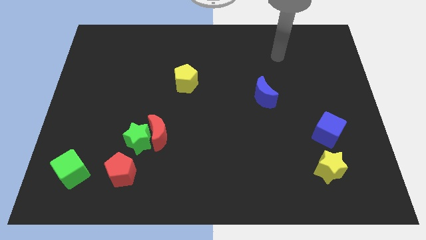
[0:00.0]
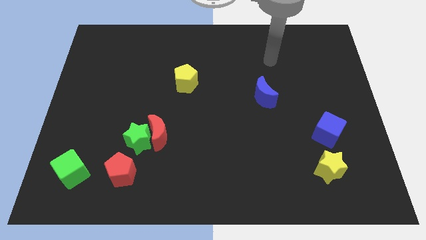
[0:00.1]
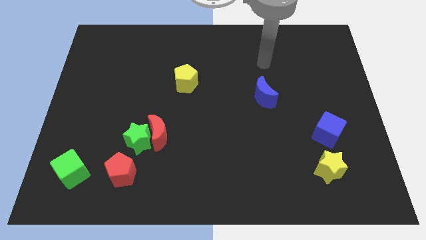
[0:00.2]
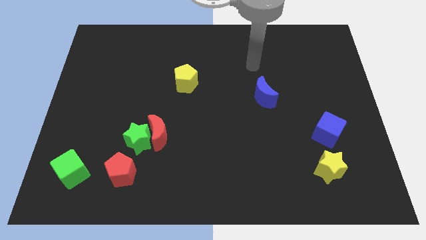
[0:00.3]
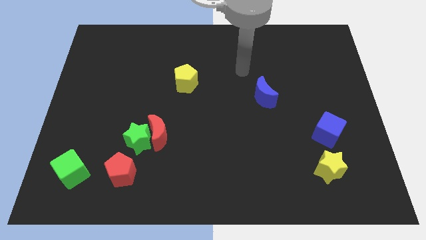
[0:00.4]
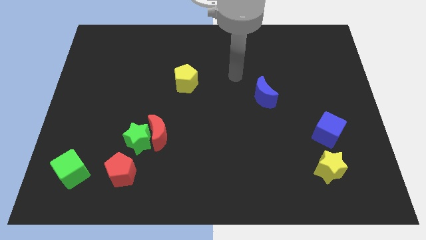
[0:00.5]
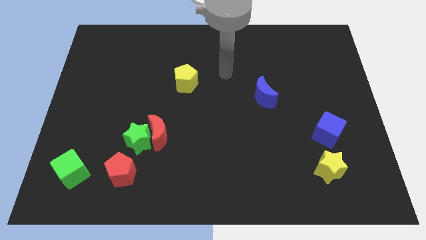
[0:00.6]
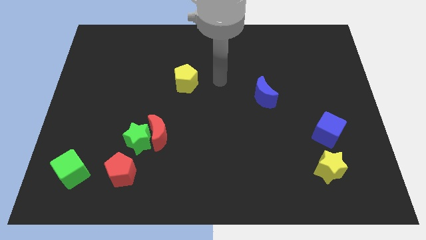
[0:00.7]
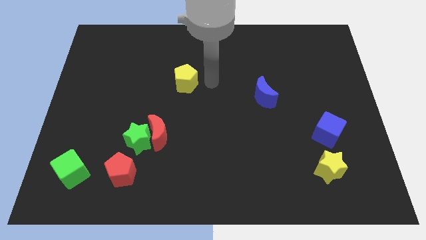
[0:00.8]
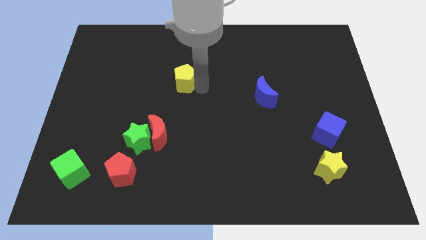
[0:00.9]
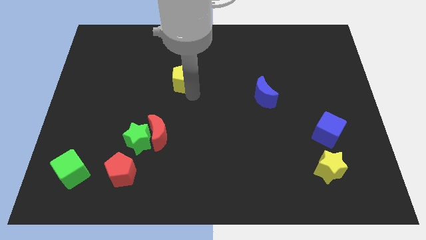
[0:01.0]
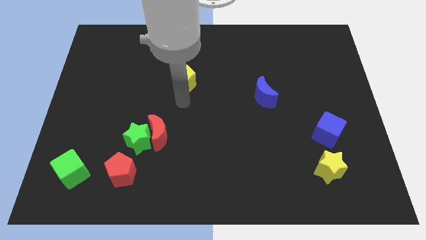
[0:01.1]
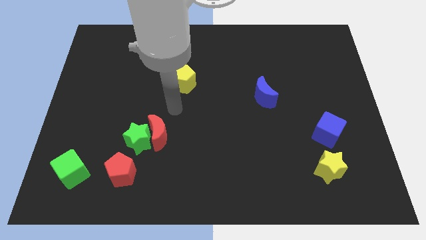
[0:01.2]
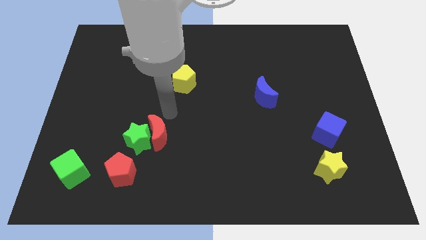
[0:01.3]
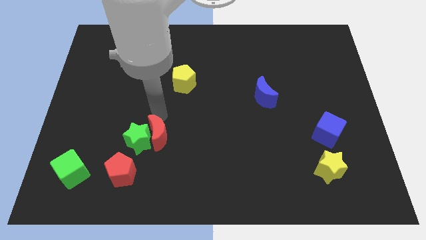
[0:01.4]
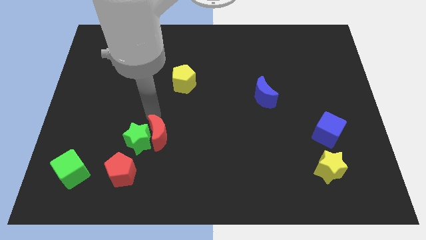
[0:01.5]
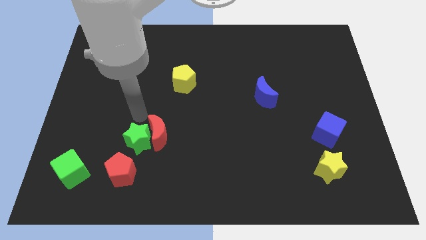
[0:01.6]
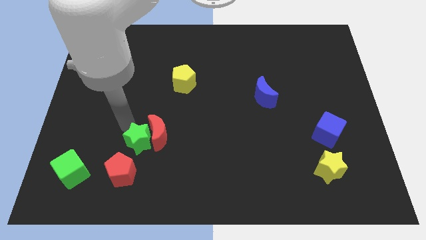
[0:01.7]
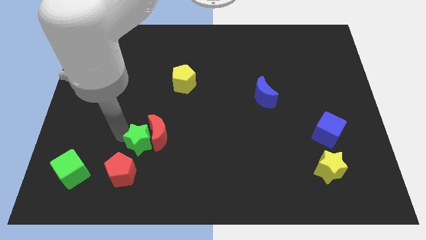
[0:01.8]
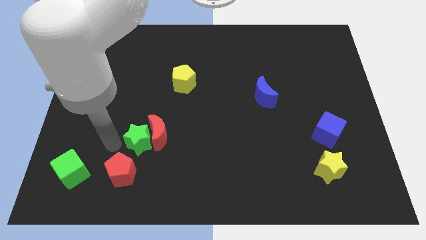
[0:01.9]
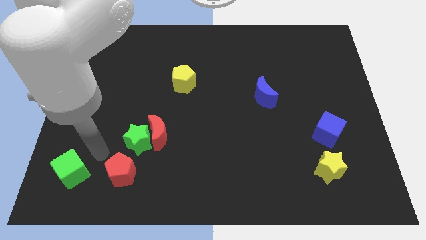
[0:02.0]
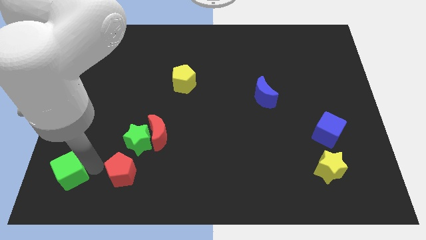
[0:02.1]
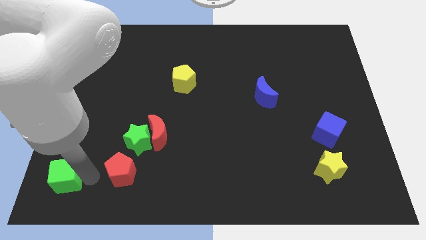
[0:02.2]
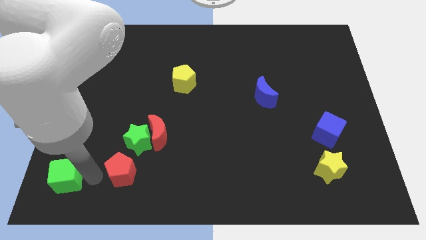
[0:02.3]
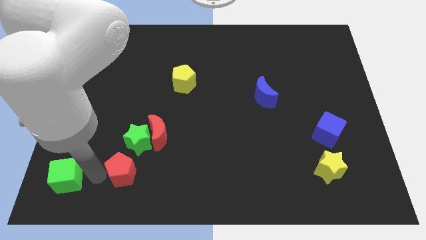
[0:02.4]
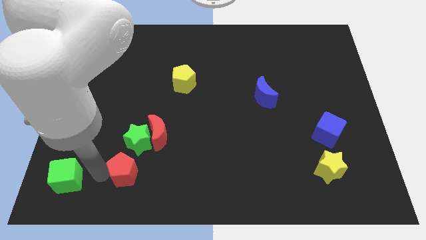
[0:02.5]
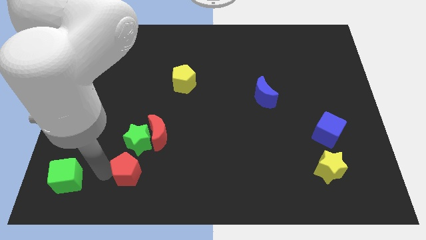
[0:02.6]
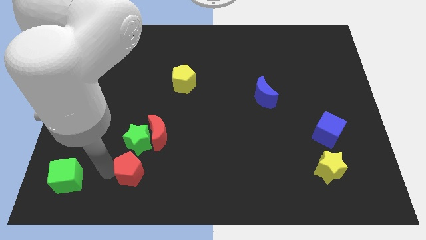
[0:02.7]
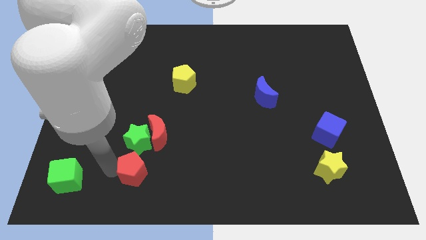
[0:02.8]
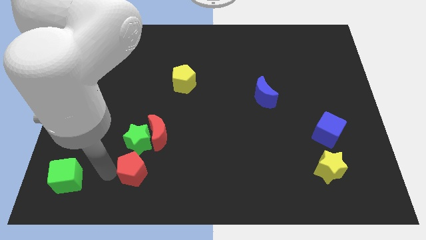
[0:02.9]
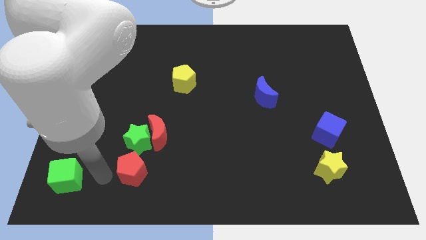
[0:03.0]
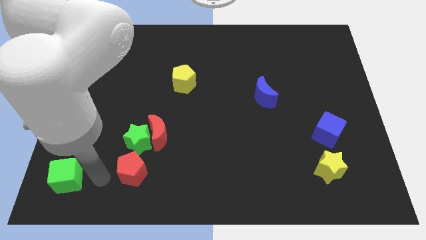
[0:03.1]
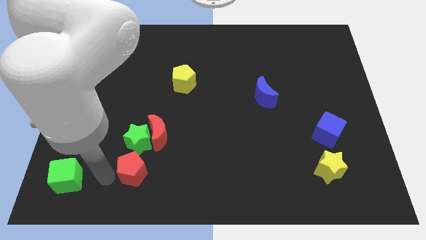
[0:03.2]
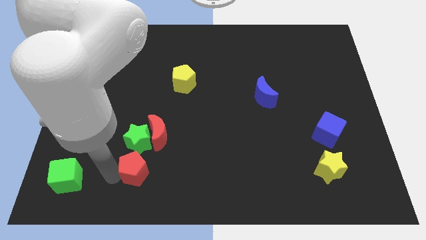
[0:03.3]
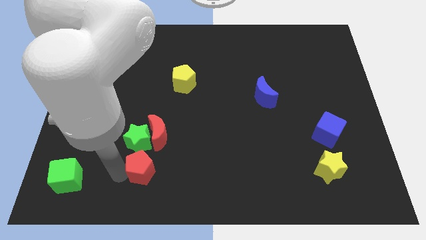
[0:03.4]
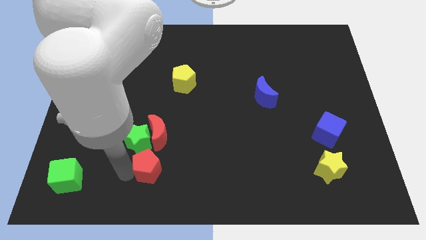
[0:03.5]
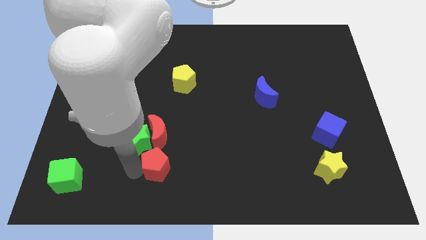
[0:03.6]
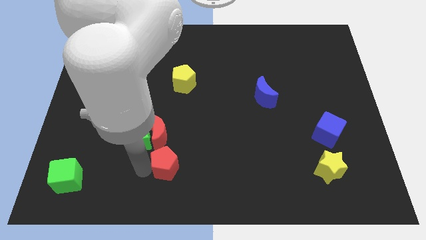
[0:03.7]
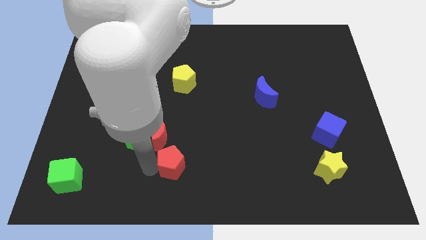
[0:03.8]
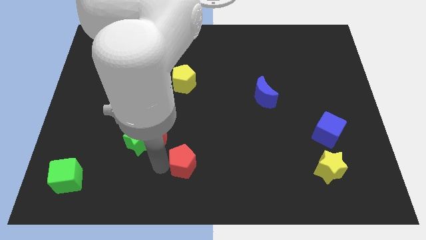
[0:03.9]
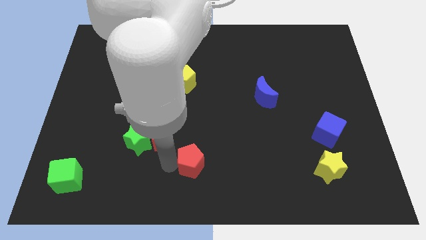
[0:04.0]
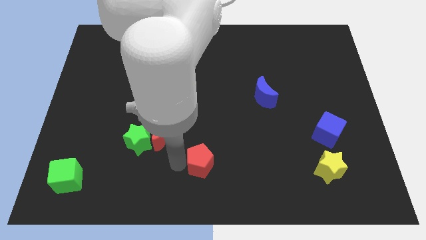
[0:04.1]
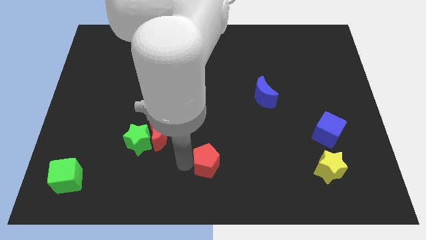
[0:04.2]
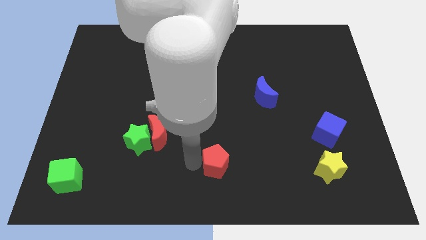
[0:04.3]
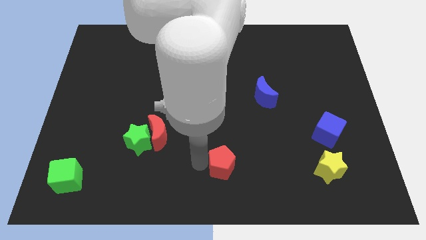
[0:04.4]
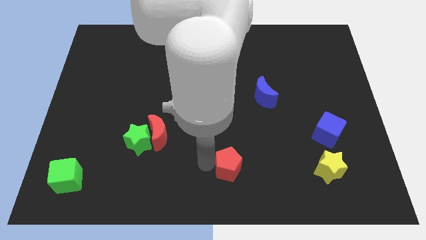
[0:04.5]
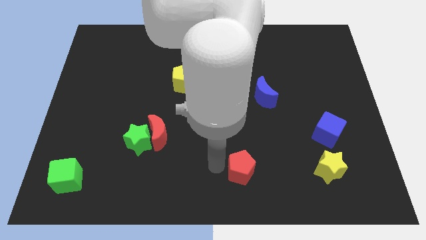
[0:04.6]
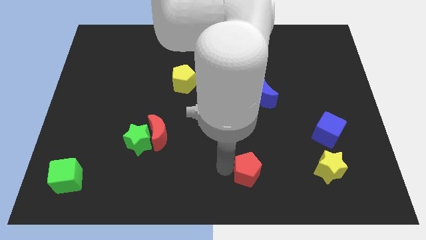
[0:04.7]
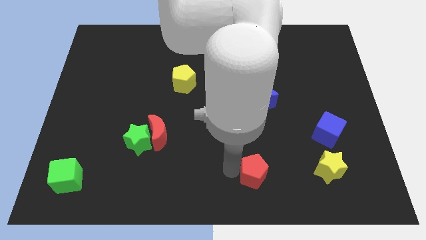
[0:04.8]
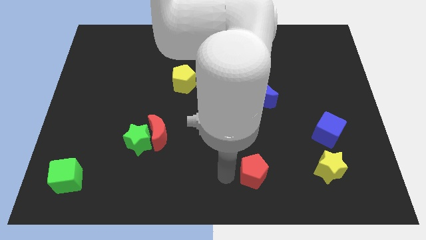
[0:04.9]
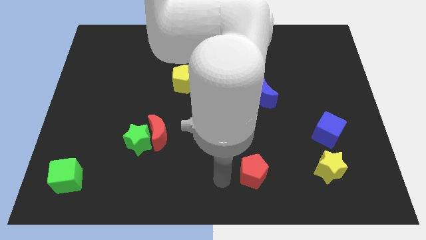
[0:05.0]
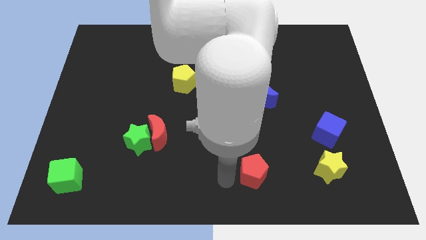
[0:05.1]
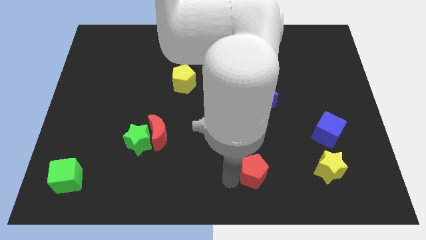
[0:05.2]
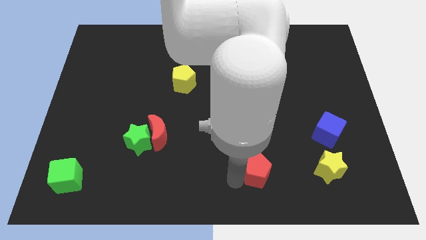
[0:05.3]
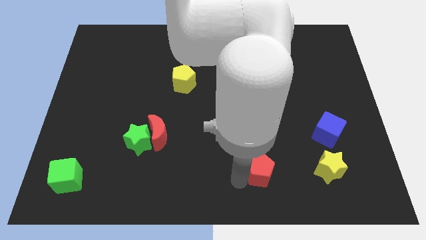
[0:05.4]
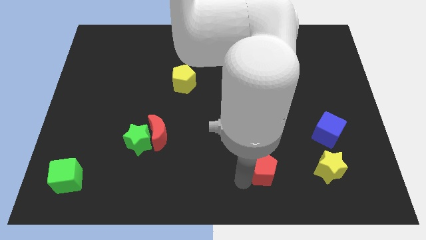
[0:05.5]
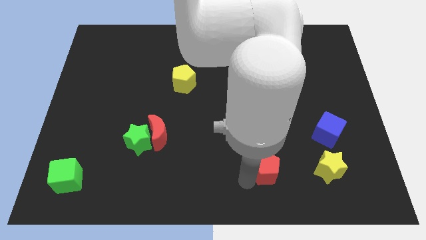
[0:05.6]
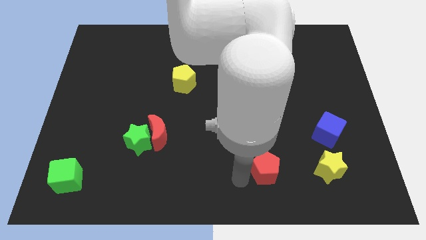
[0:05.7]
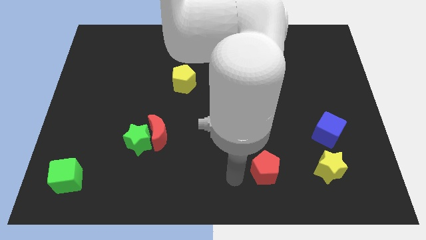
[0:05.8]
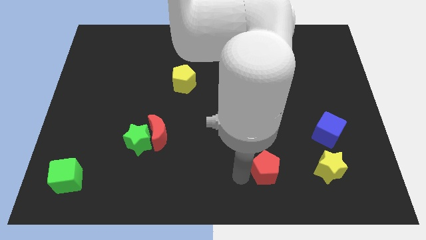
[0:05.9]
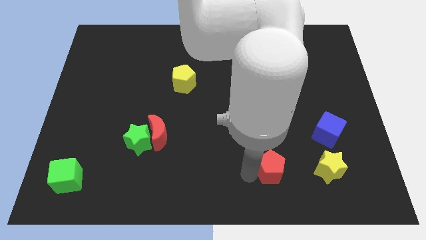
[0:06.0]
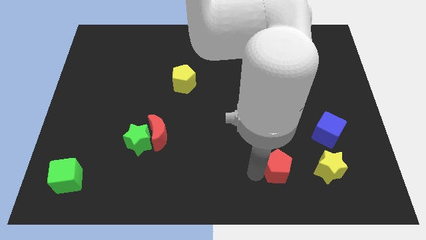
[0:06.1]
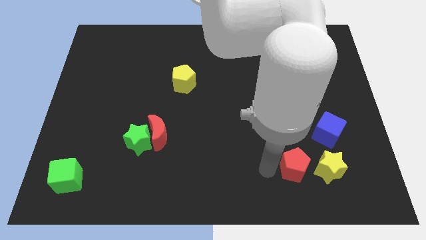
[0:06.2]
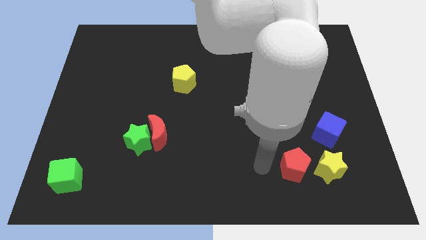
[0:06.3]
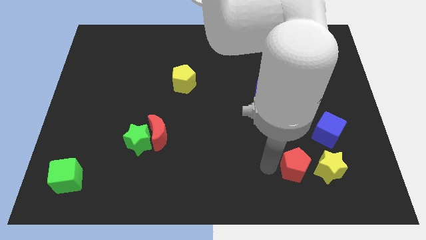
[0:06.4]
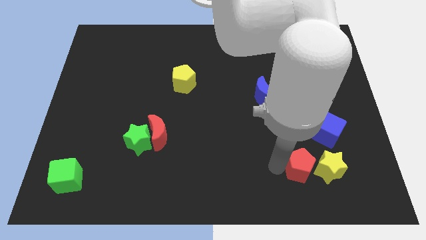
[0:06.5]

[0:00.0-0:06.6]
move the red pentagon to the yellow star
